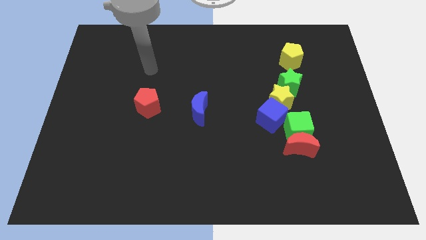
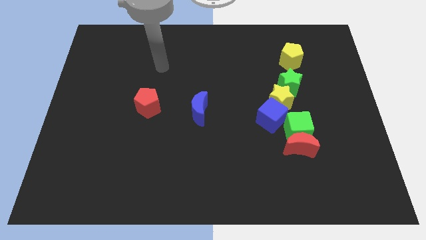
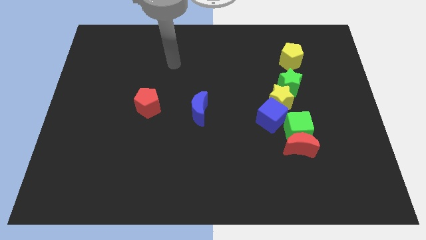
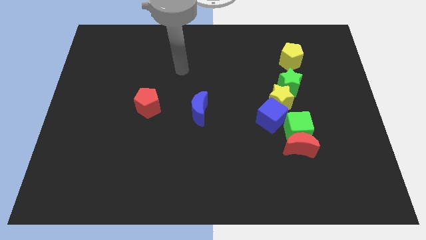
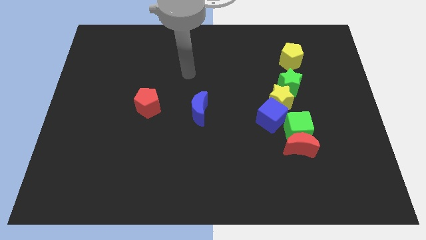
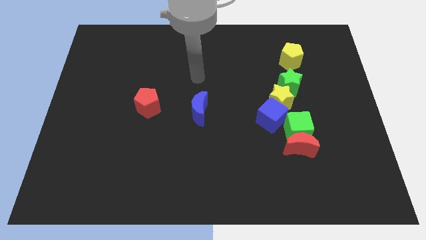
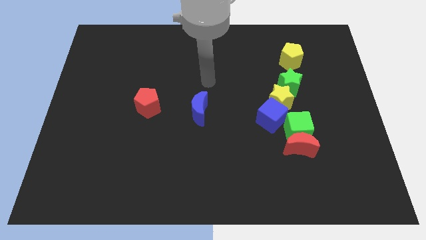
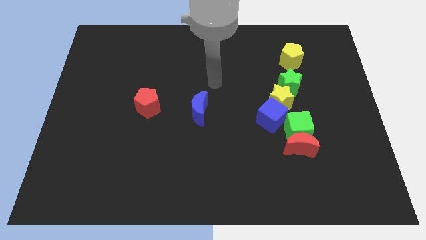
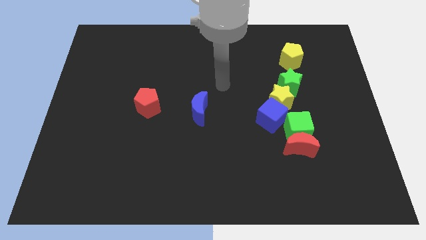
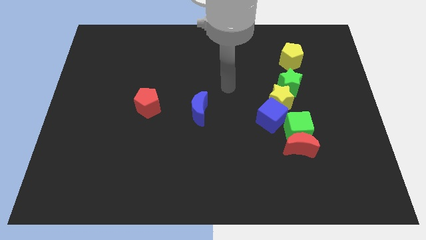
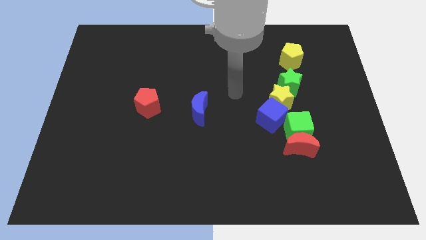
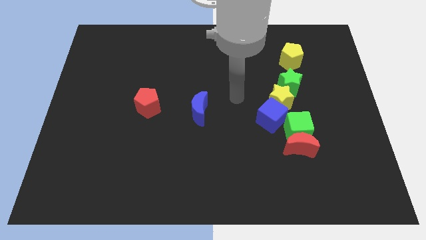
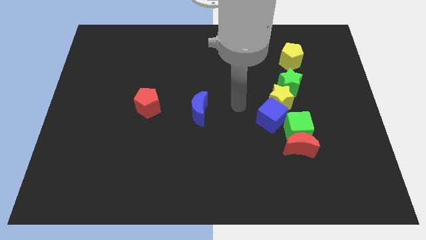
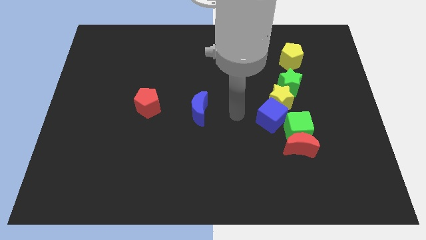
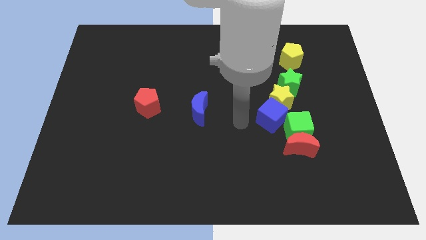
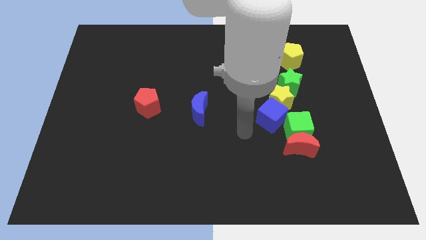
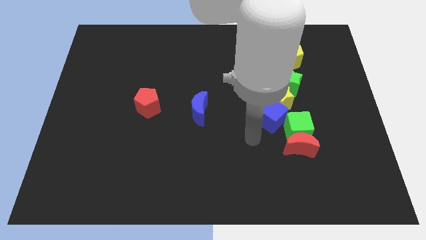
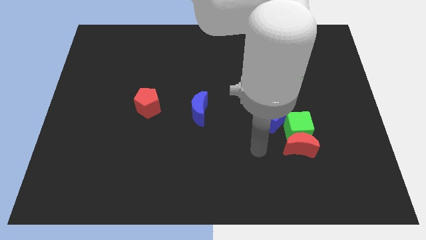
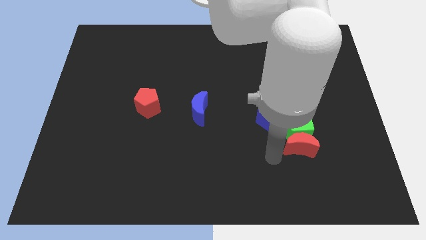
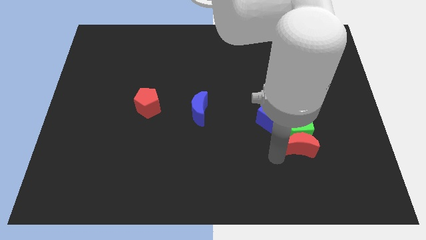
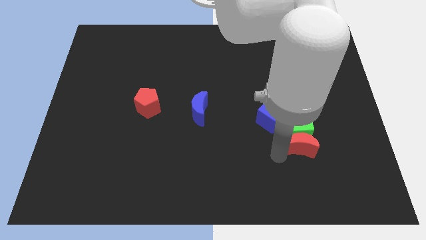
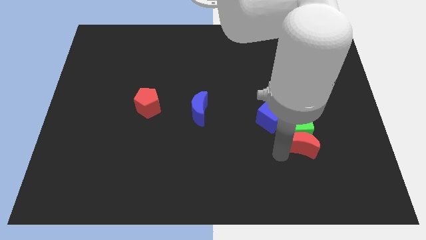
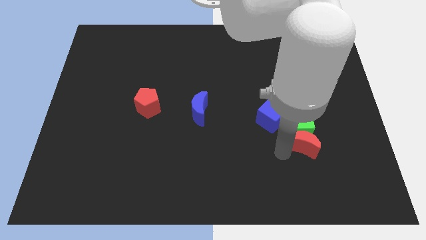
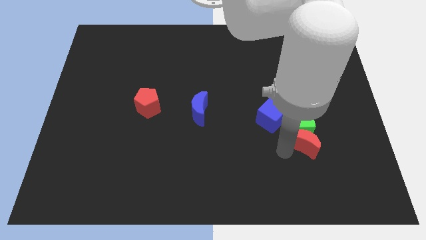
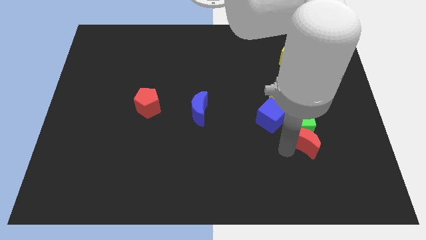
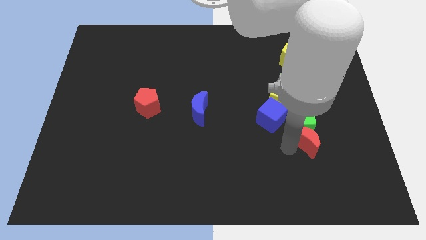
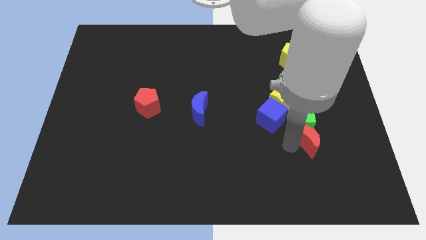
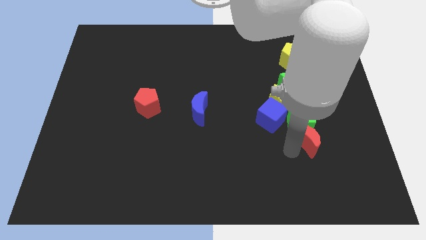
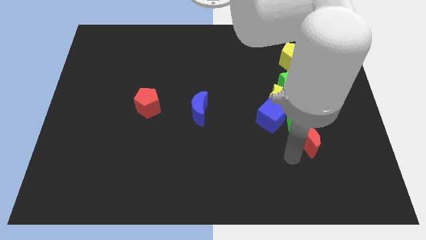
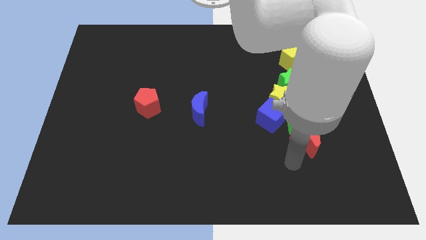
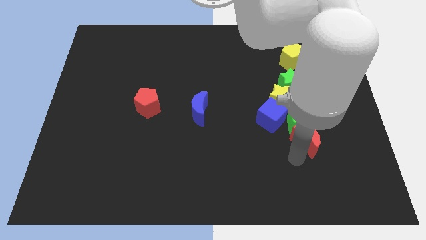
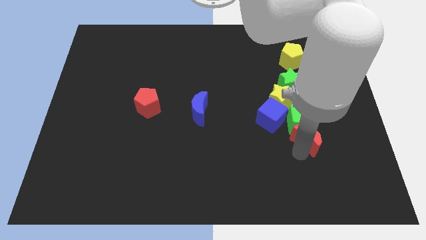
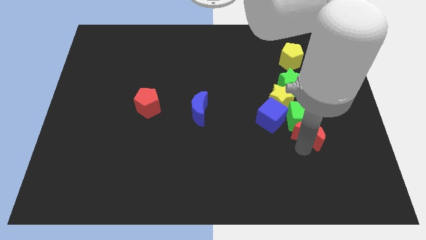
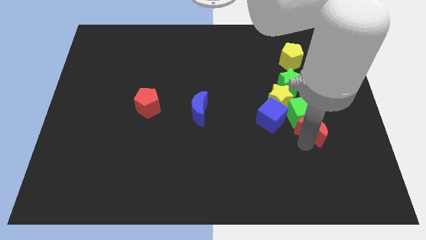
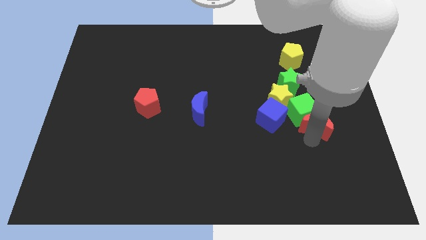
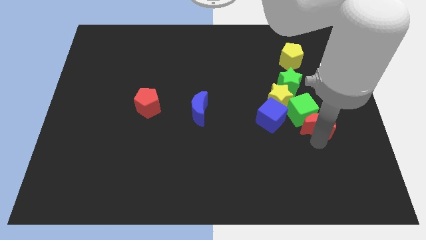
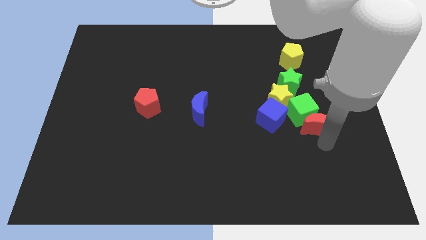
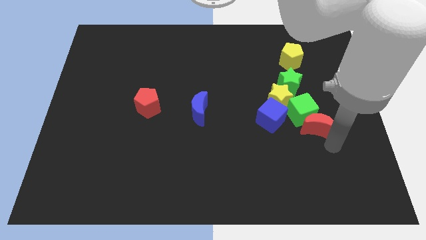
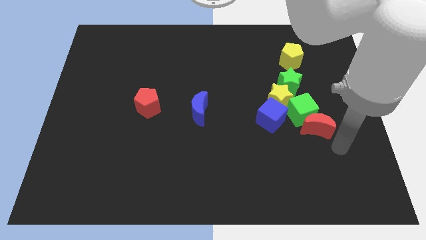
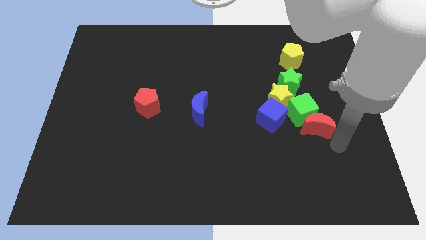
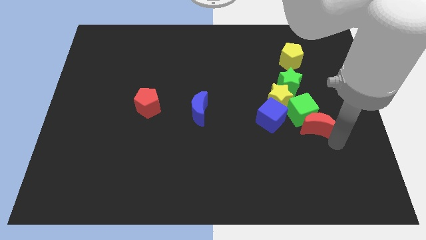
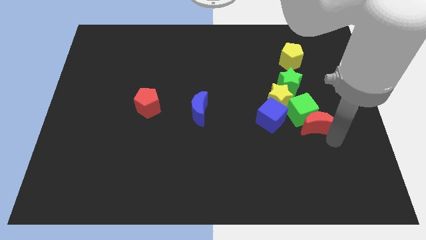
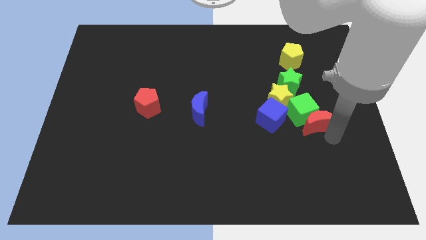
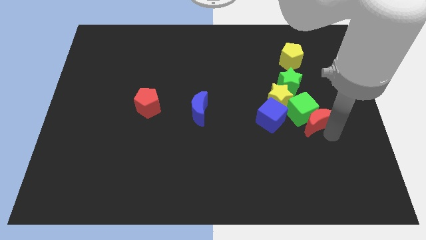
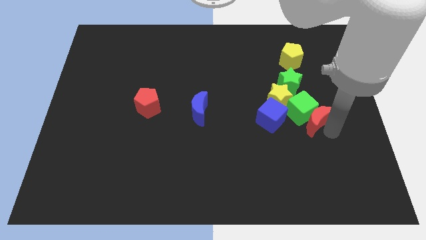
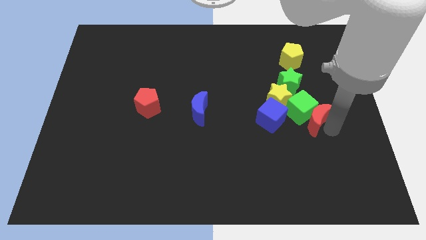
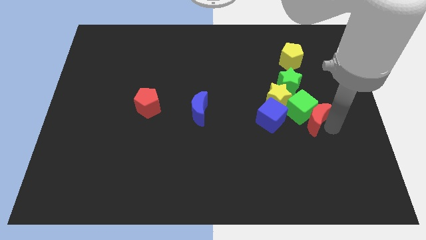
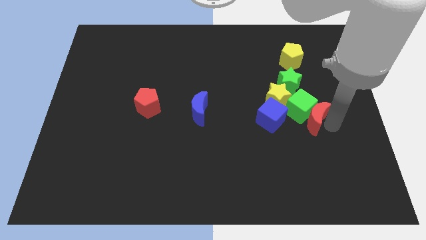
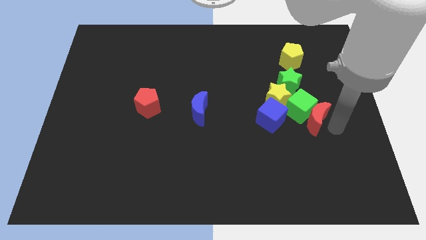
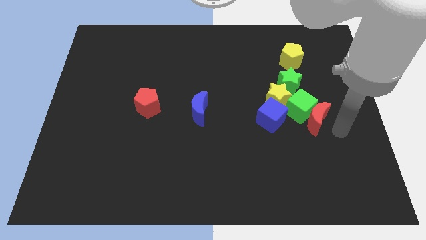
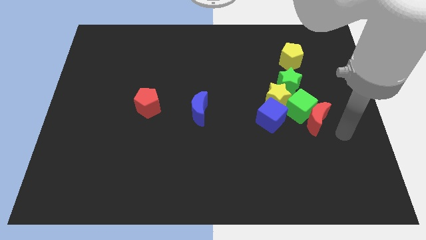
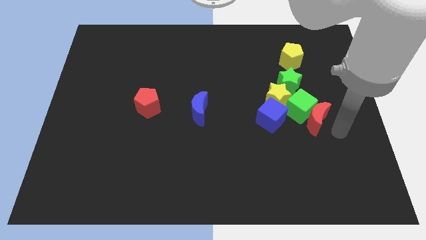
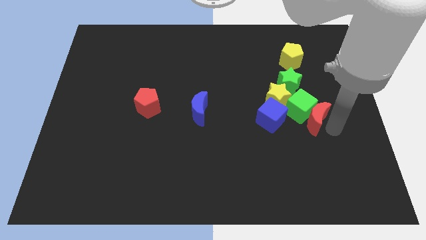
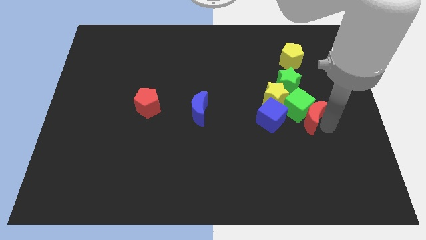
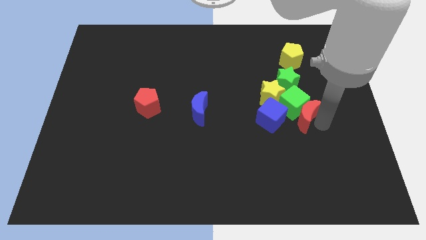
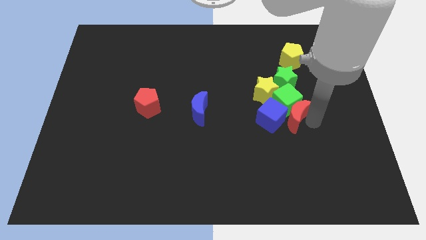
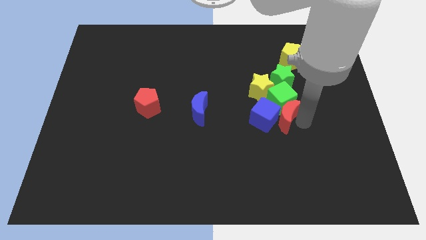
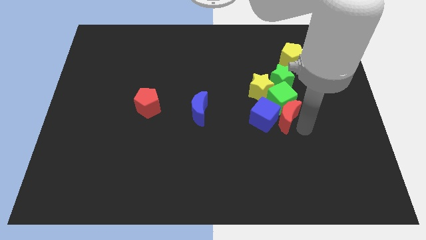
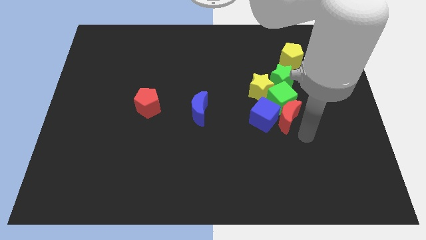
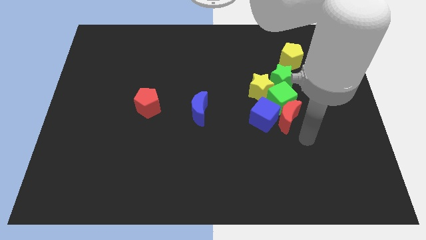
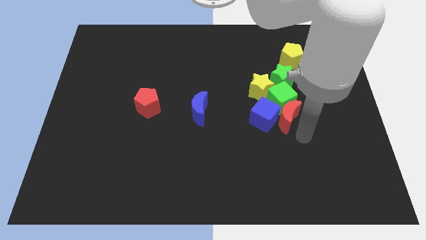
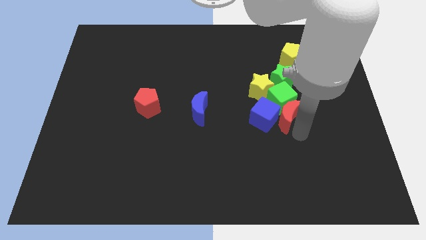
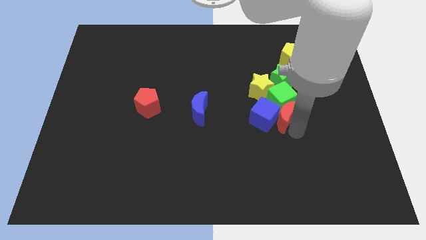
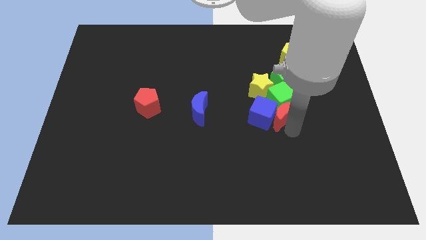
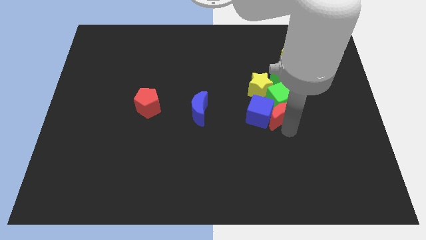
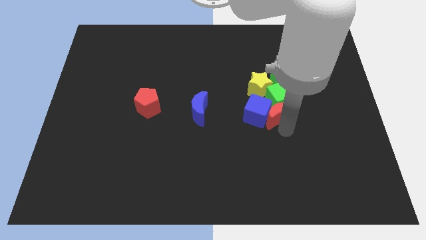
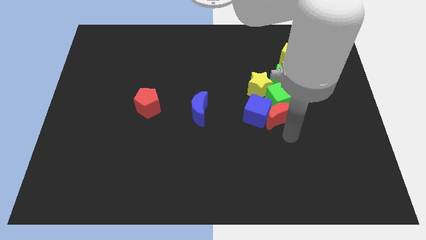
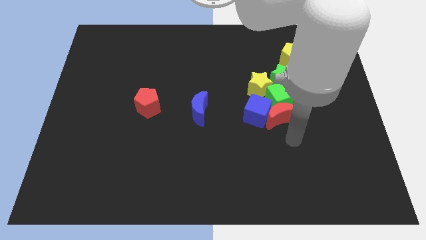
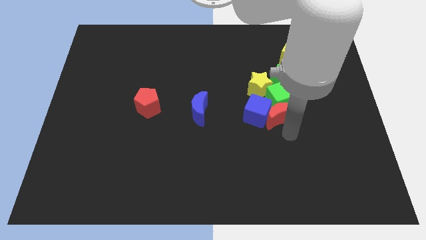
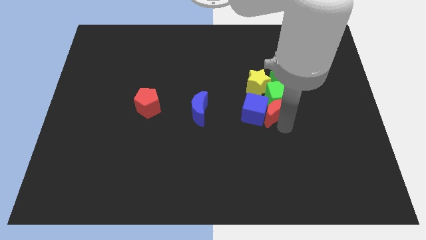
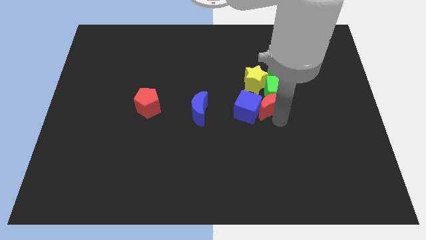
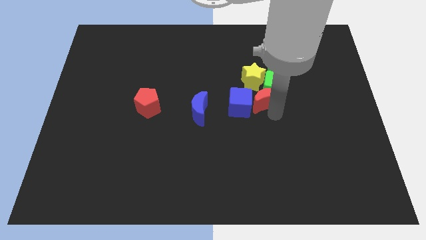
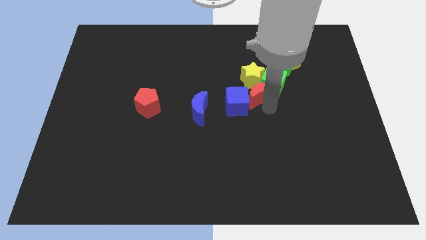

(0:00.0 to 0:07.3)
push the red moon close to the yellow star
